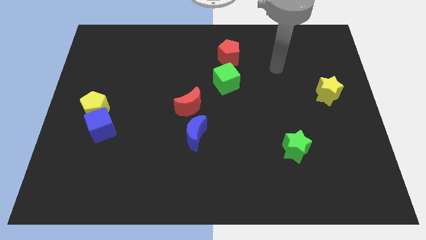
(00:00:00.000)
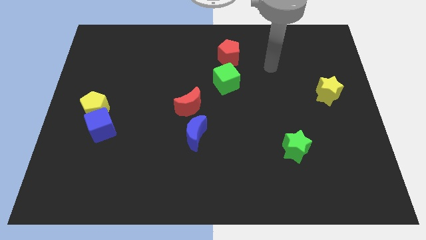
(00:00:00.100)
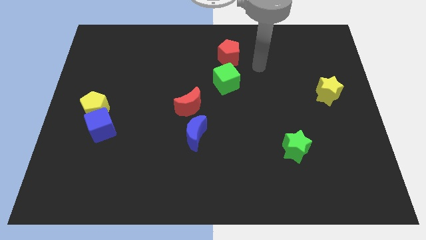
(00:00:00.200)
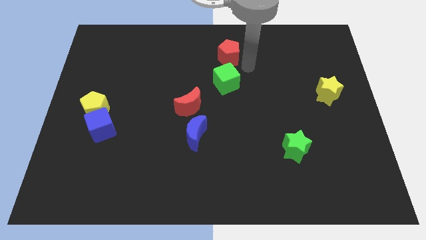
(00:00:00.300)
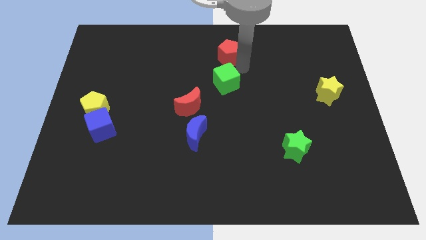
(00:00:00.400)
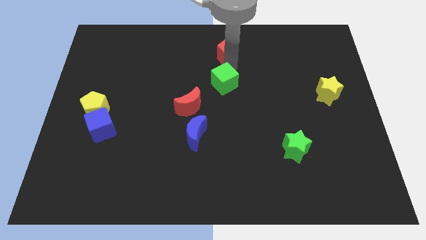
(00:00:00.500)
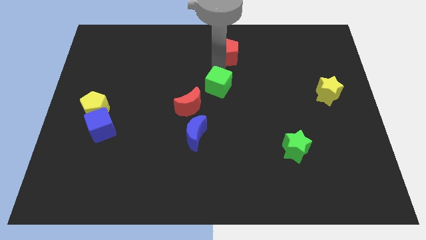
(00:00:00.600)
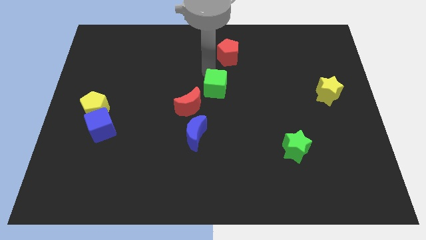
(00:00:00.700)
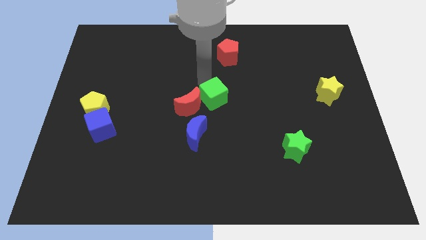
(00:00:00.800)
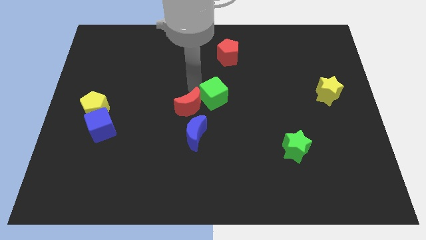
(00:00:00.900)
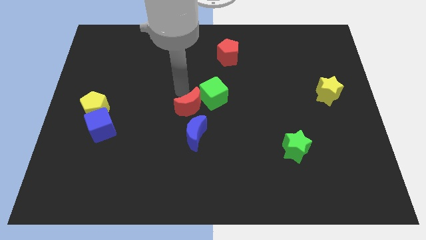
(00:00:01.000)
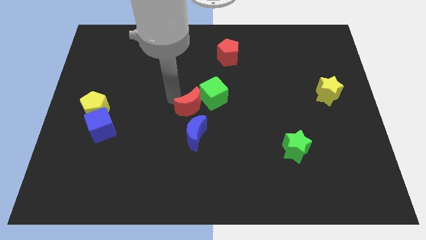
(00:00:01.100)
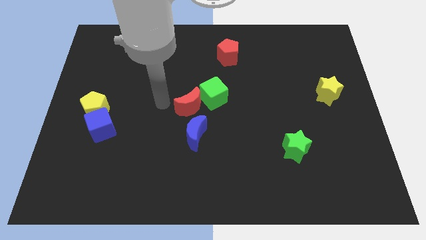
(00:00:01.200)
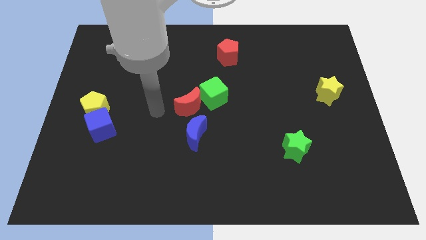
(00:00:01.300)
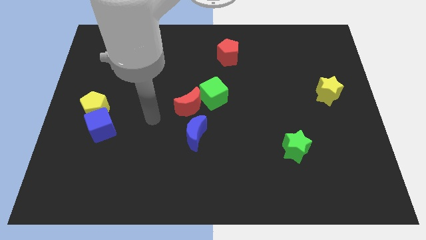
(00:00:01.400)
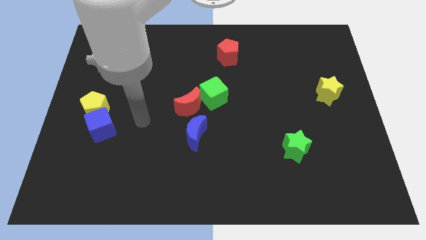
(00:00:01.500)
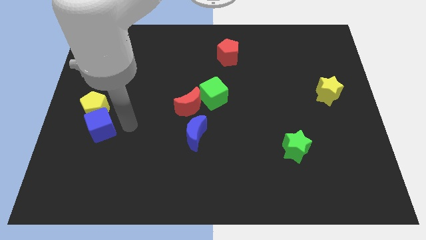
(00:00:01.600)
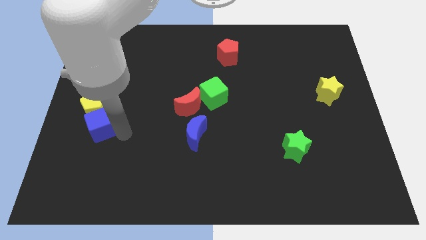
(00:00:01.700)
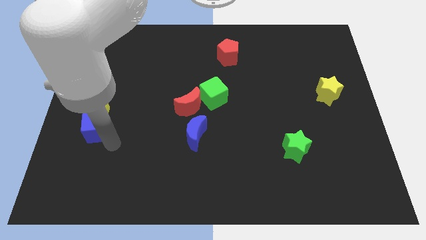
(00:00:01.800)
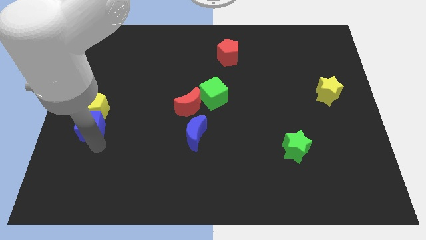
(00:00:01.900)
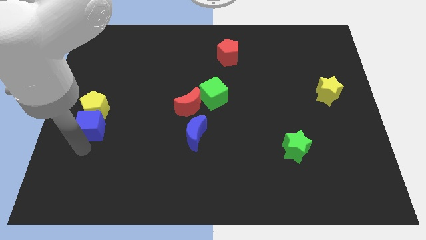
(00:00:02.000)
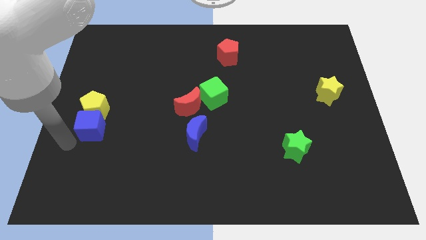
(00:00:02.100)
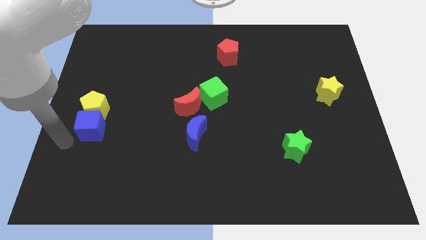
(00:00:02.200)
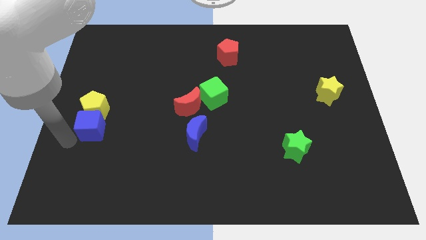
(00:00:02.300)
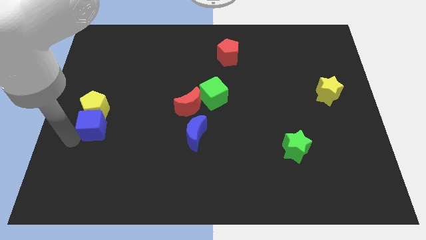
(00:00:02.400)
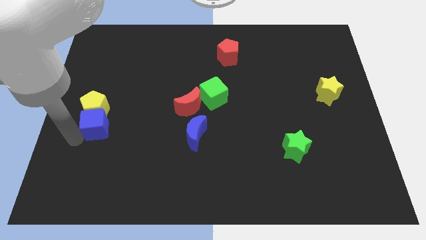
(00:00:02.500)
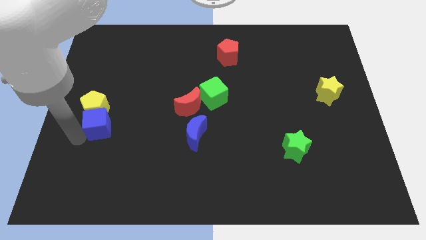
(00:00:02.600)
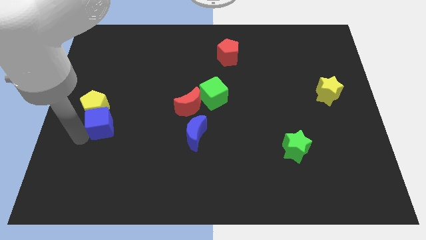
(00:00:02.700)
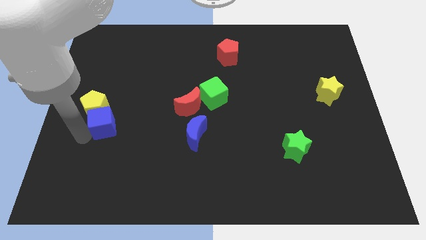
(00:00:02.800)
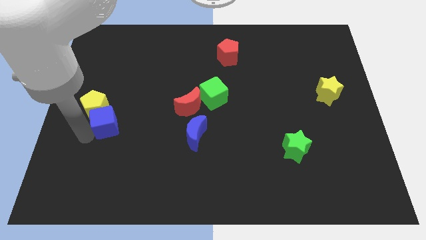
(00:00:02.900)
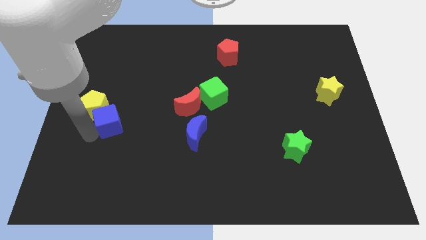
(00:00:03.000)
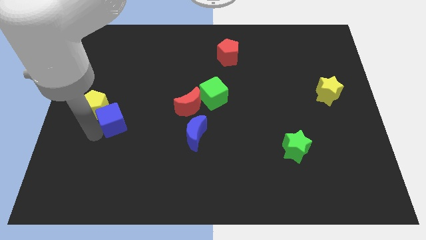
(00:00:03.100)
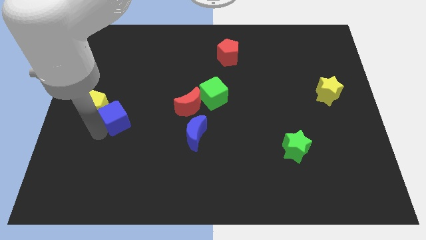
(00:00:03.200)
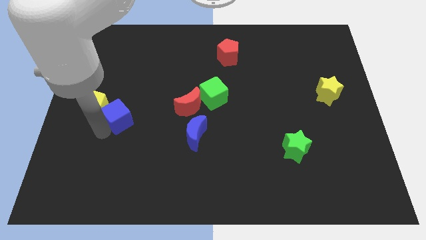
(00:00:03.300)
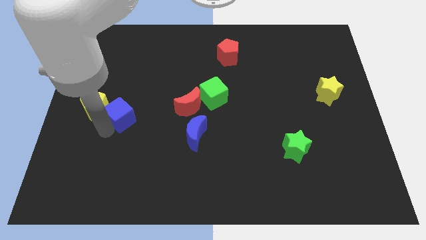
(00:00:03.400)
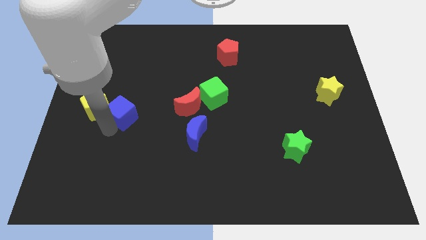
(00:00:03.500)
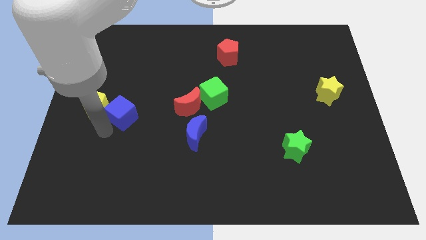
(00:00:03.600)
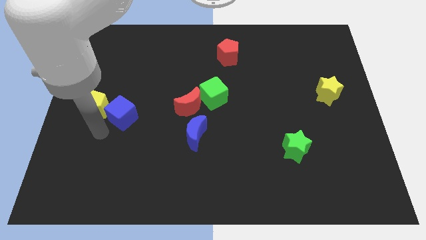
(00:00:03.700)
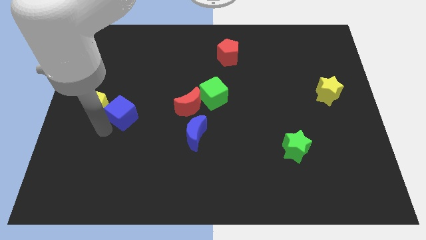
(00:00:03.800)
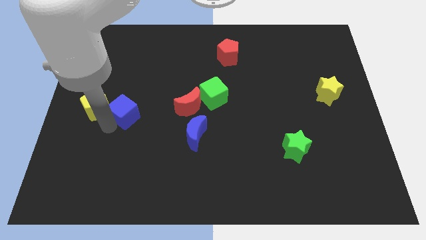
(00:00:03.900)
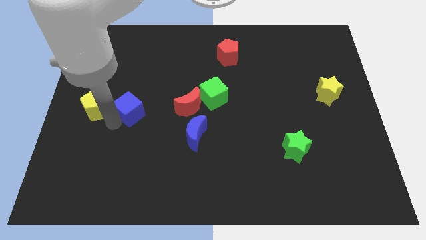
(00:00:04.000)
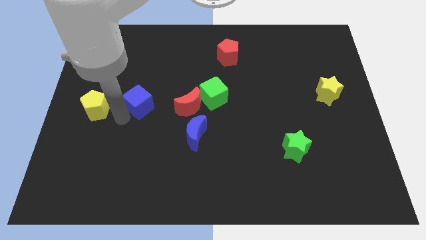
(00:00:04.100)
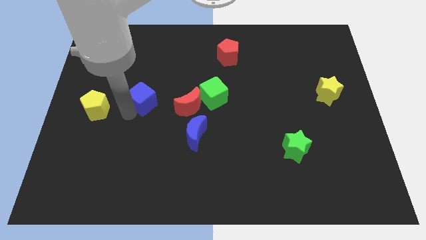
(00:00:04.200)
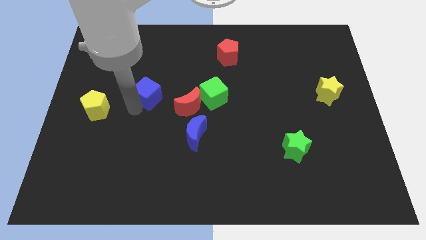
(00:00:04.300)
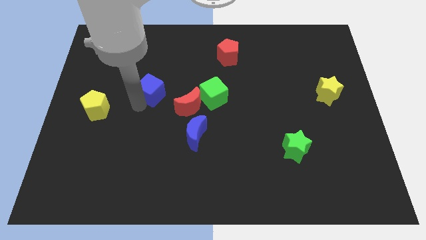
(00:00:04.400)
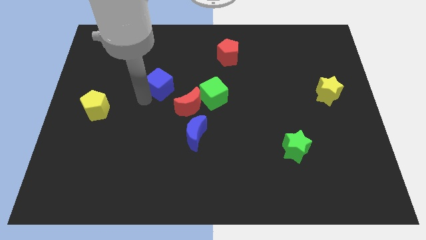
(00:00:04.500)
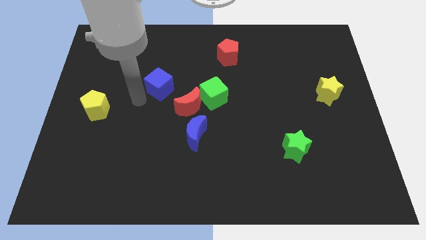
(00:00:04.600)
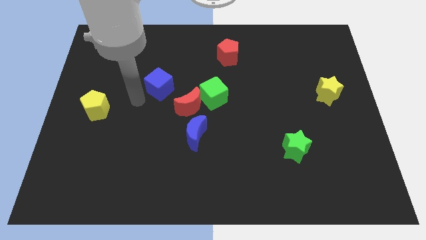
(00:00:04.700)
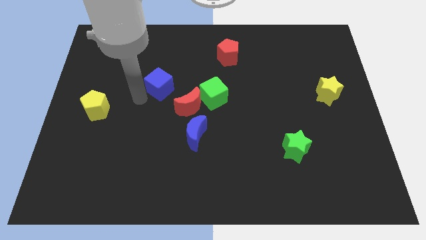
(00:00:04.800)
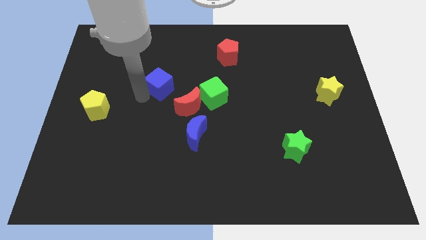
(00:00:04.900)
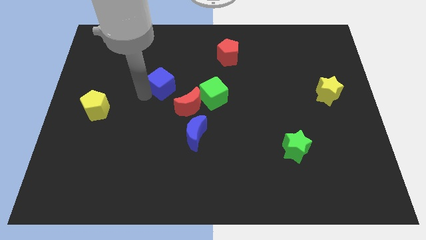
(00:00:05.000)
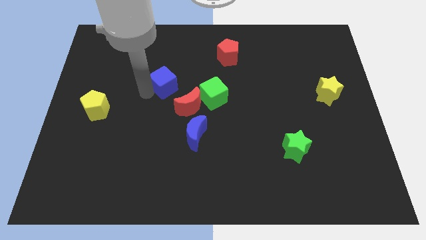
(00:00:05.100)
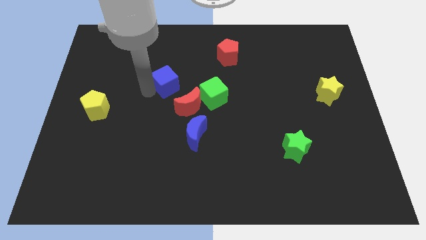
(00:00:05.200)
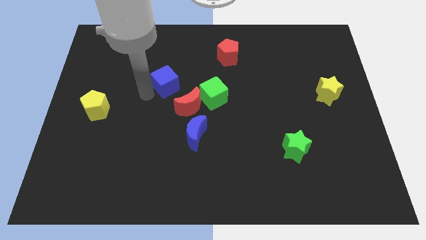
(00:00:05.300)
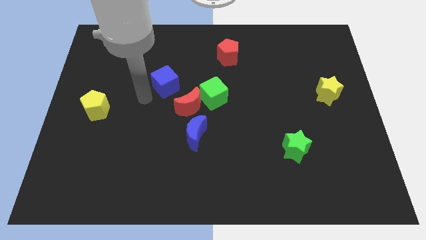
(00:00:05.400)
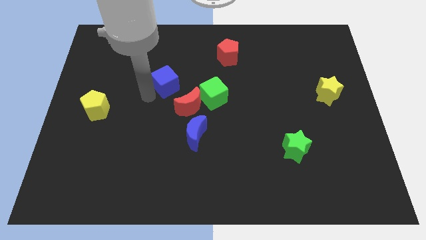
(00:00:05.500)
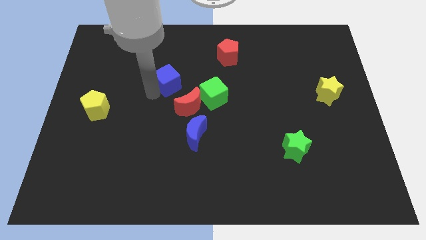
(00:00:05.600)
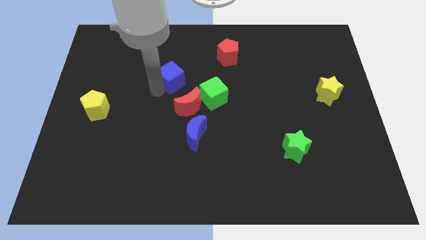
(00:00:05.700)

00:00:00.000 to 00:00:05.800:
push the blue cube up and right diagonally

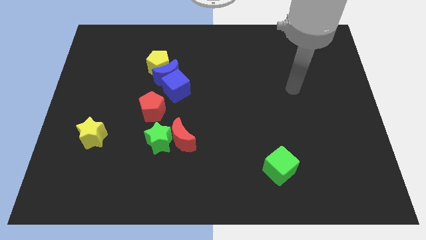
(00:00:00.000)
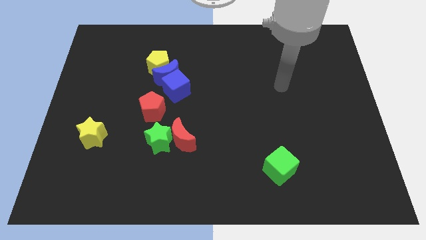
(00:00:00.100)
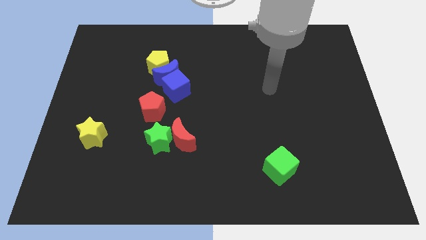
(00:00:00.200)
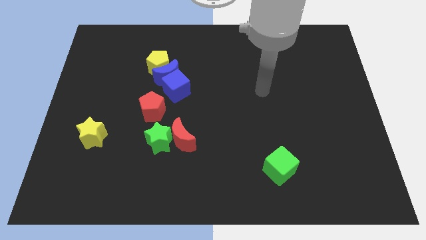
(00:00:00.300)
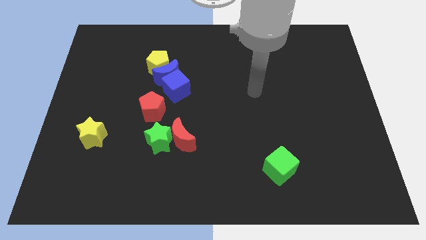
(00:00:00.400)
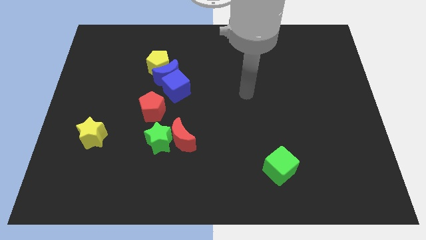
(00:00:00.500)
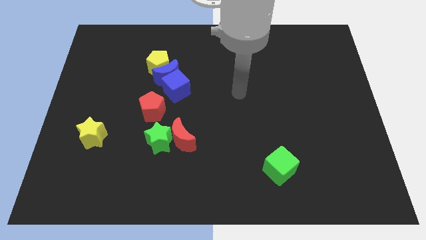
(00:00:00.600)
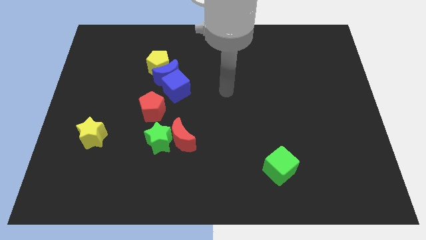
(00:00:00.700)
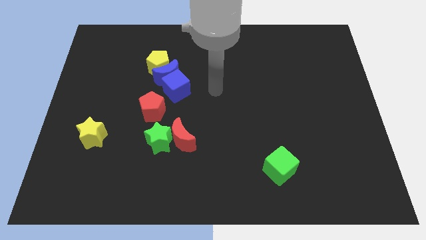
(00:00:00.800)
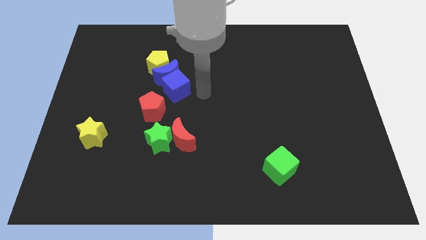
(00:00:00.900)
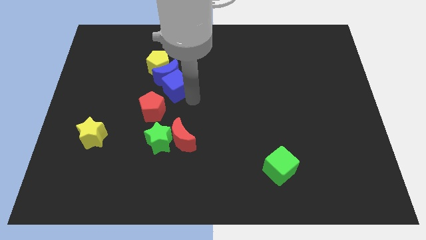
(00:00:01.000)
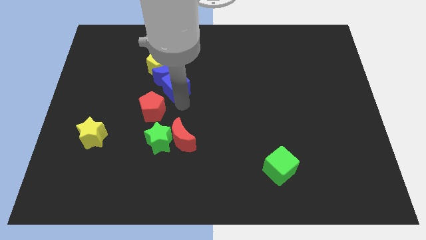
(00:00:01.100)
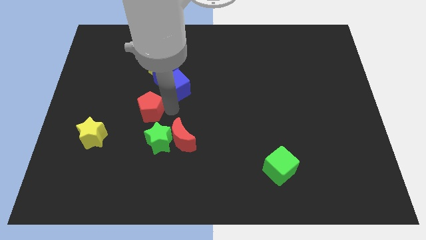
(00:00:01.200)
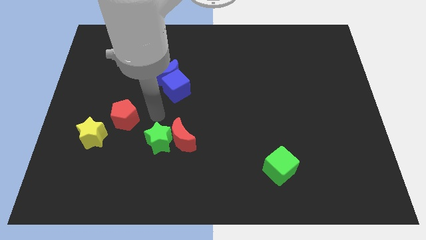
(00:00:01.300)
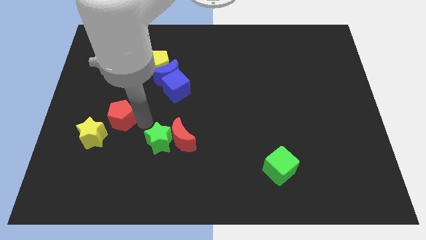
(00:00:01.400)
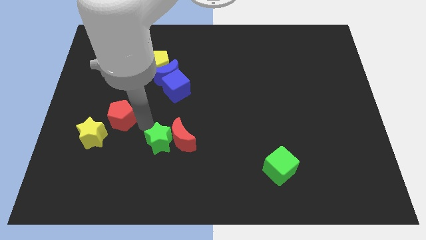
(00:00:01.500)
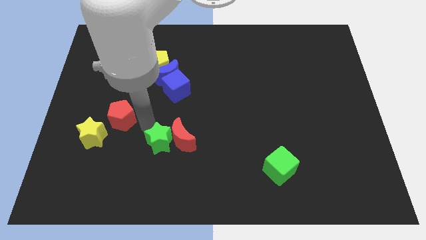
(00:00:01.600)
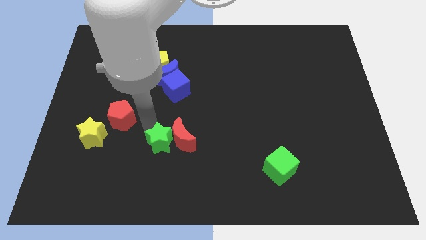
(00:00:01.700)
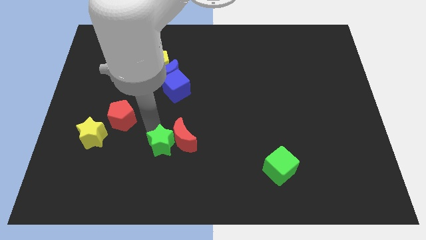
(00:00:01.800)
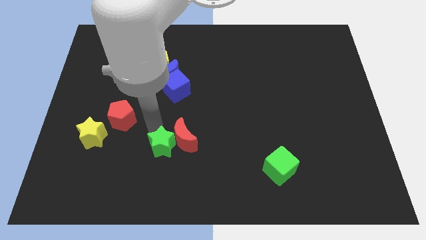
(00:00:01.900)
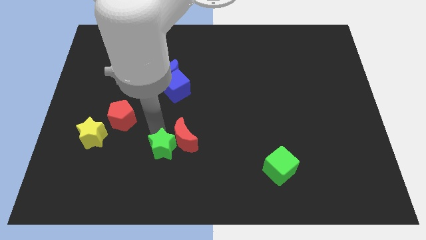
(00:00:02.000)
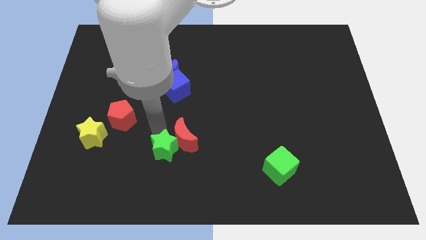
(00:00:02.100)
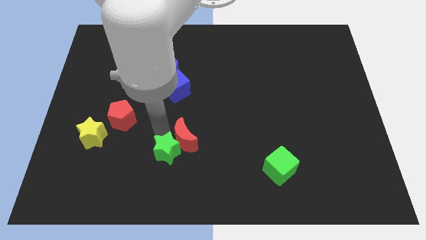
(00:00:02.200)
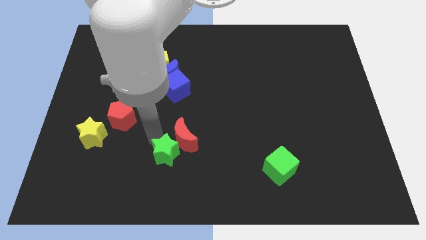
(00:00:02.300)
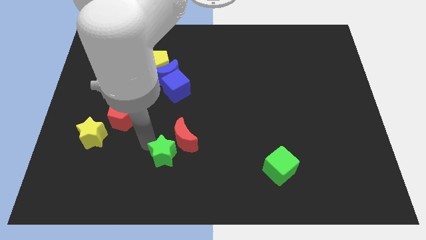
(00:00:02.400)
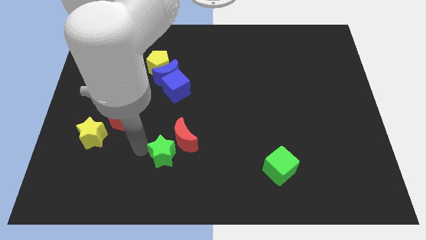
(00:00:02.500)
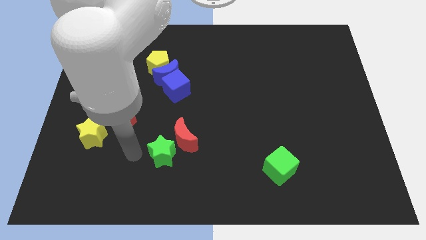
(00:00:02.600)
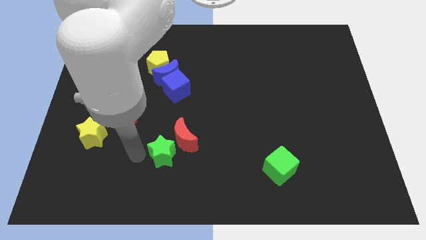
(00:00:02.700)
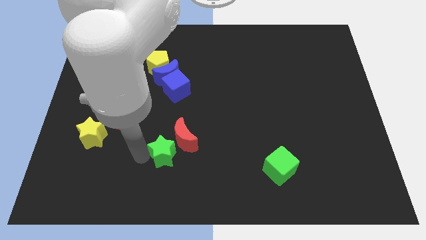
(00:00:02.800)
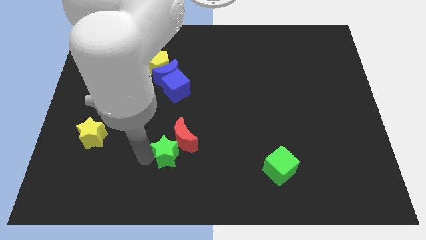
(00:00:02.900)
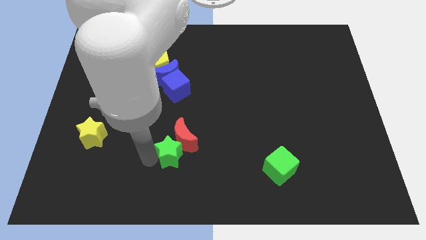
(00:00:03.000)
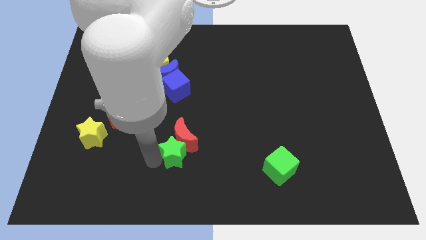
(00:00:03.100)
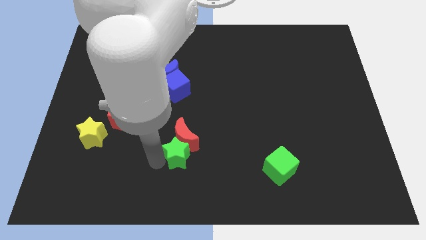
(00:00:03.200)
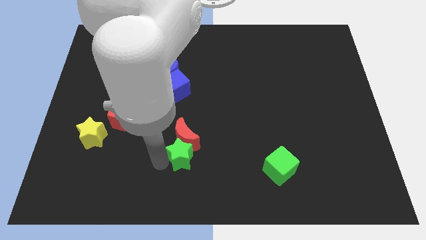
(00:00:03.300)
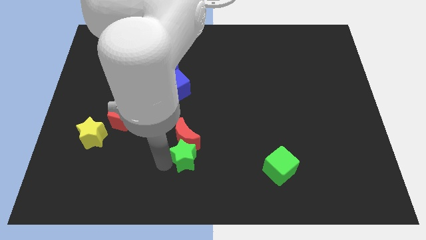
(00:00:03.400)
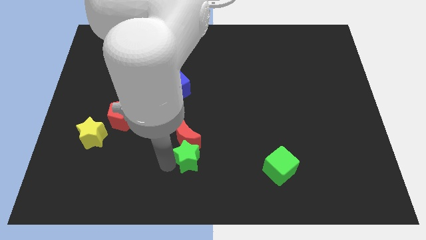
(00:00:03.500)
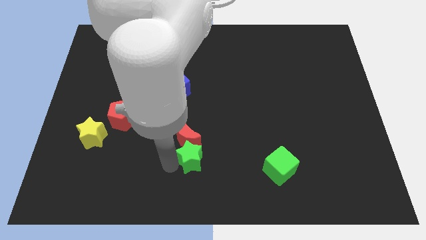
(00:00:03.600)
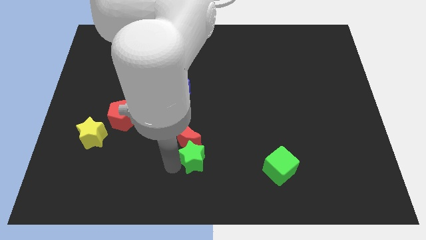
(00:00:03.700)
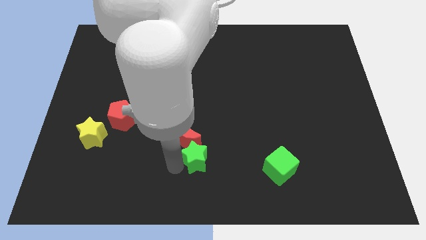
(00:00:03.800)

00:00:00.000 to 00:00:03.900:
move the green star a little to the right
